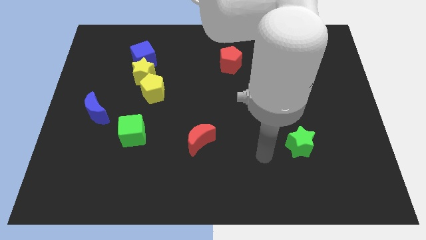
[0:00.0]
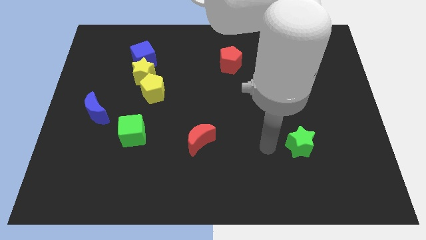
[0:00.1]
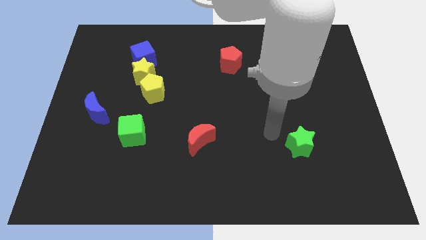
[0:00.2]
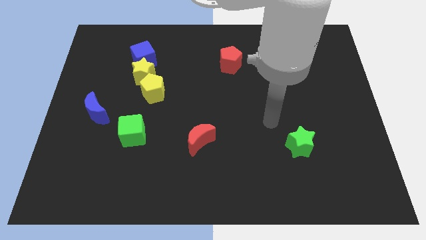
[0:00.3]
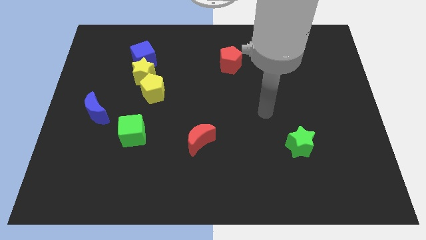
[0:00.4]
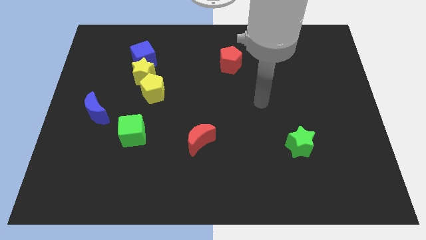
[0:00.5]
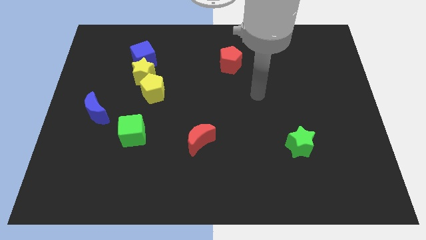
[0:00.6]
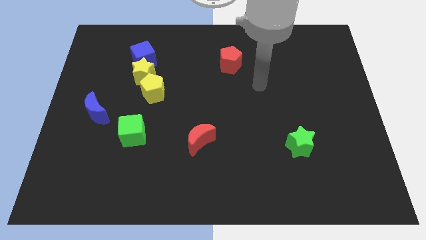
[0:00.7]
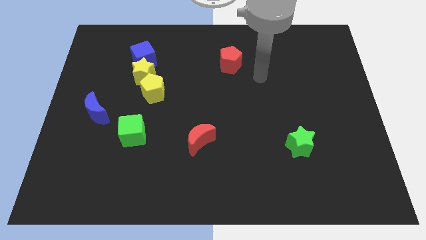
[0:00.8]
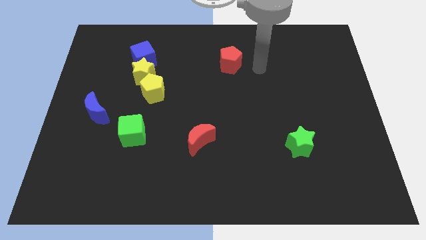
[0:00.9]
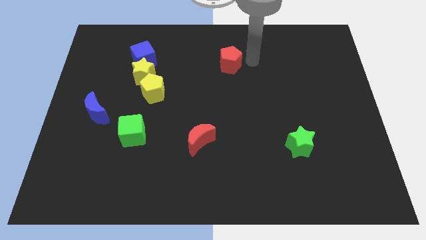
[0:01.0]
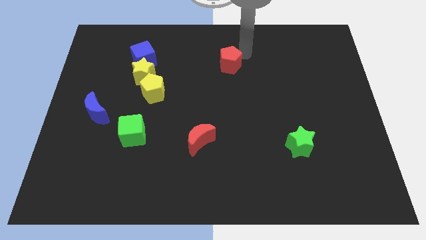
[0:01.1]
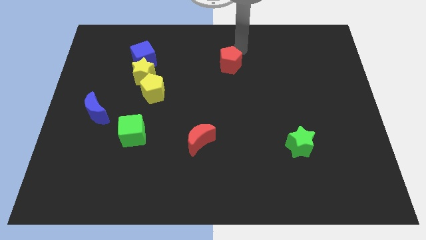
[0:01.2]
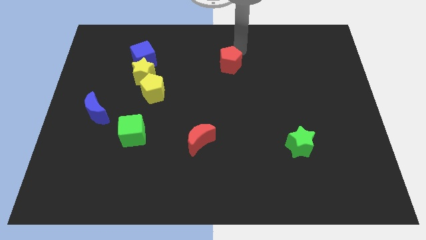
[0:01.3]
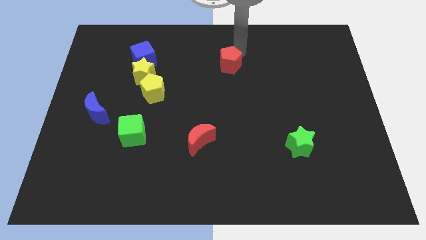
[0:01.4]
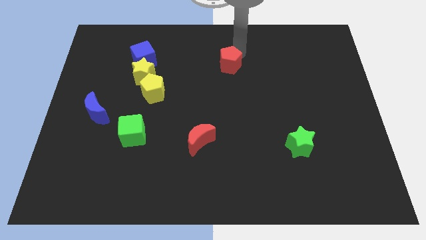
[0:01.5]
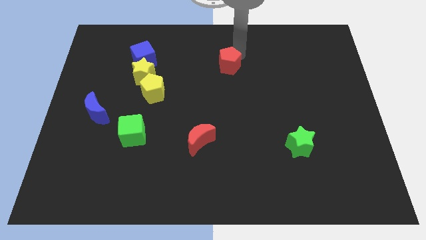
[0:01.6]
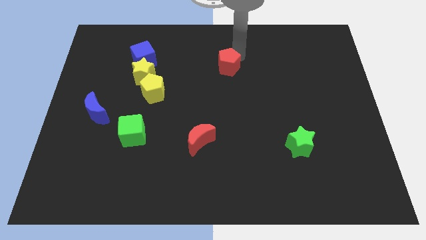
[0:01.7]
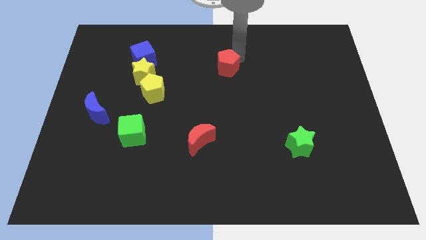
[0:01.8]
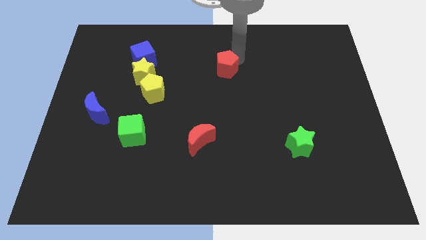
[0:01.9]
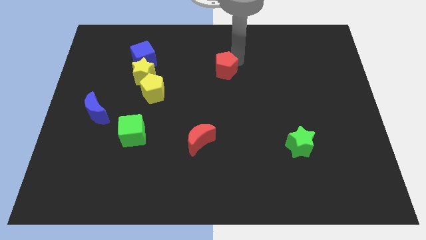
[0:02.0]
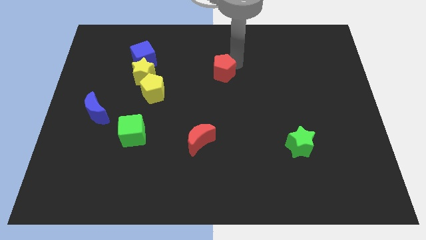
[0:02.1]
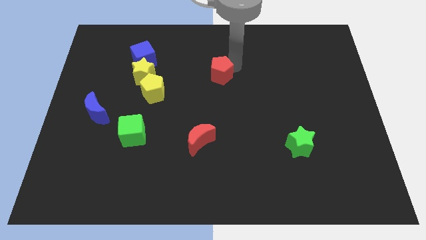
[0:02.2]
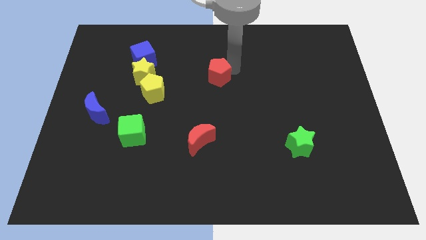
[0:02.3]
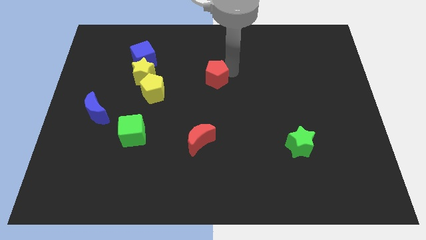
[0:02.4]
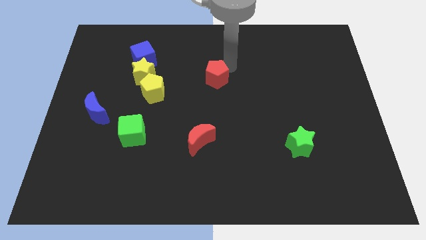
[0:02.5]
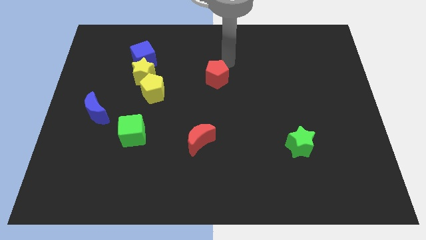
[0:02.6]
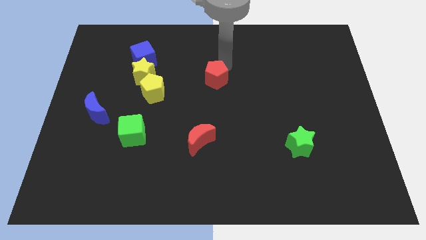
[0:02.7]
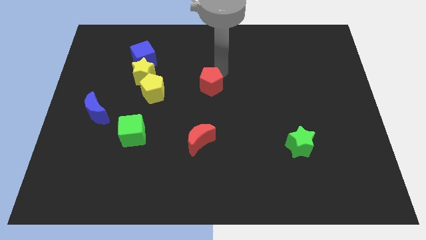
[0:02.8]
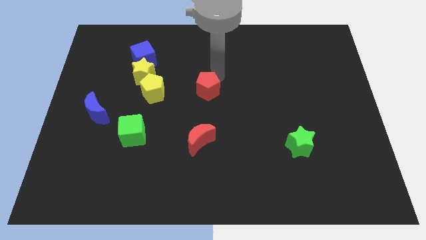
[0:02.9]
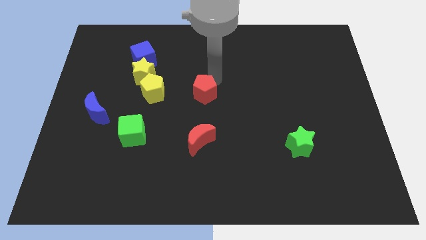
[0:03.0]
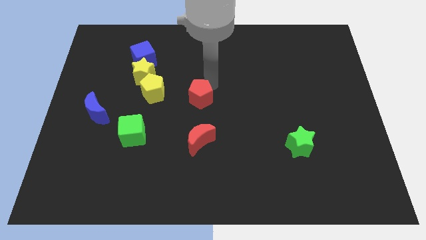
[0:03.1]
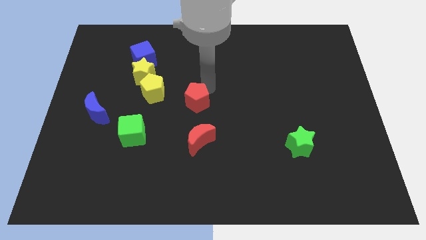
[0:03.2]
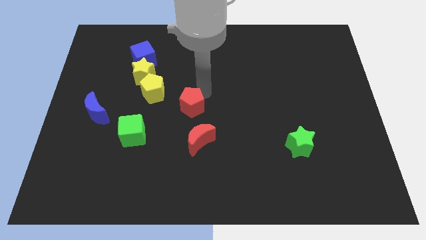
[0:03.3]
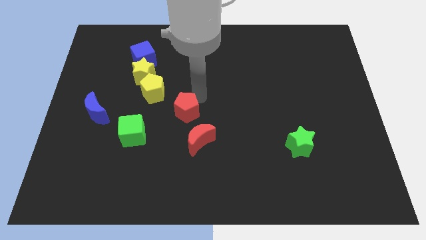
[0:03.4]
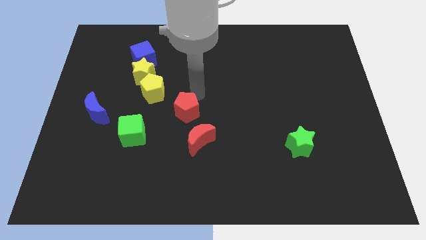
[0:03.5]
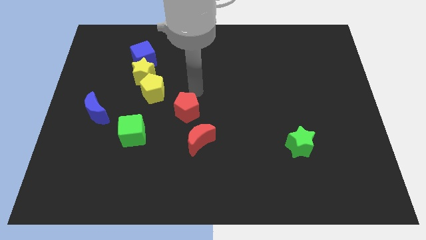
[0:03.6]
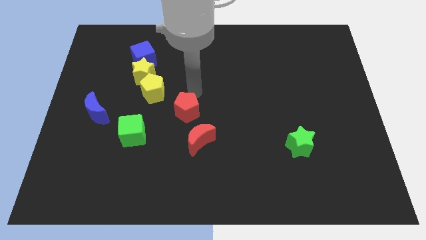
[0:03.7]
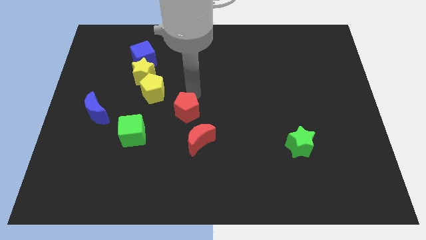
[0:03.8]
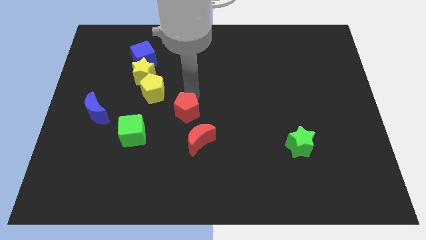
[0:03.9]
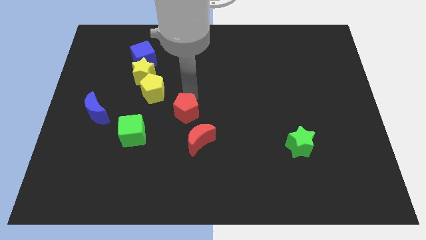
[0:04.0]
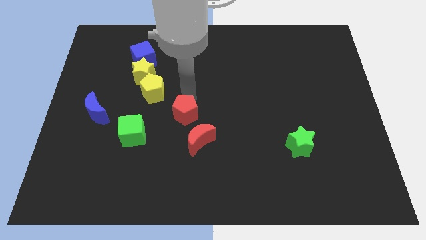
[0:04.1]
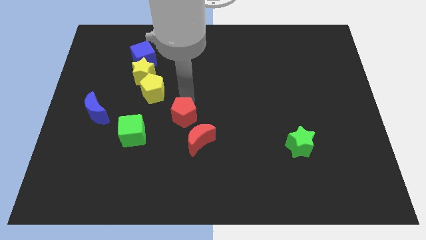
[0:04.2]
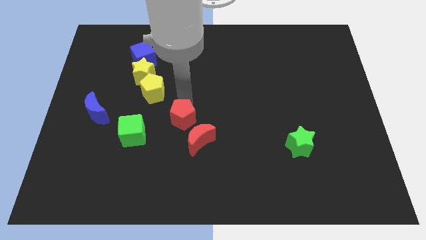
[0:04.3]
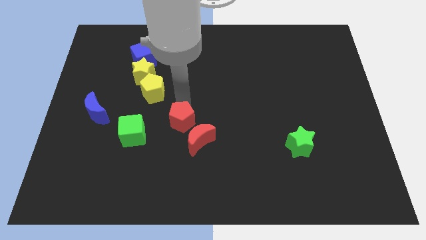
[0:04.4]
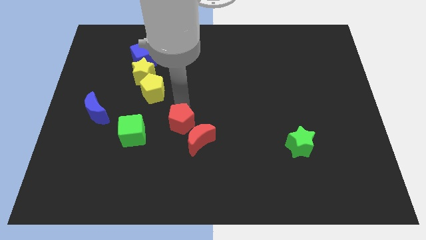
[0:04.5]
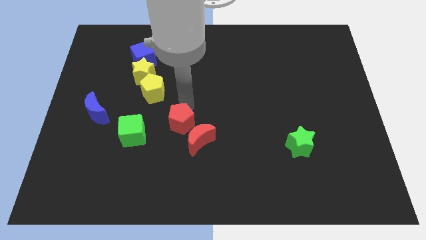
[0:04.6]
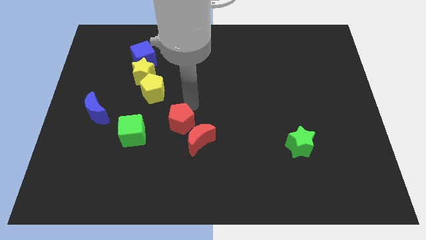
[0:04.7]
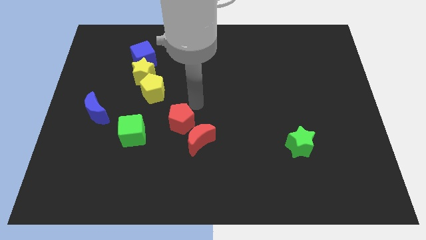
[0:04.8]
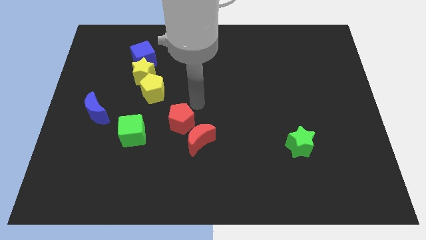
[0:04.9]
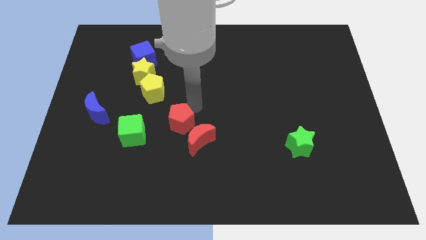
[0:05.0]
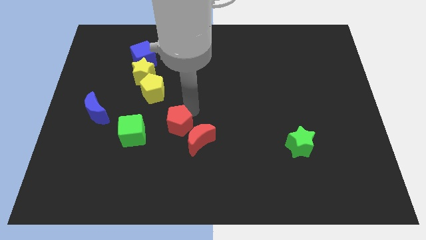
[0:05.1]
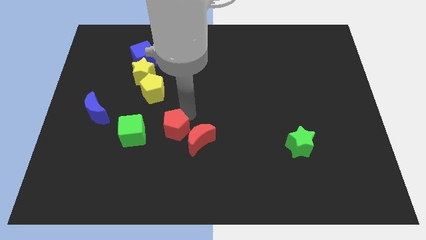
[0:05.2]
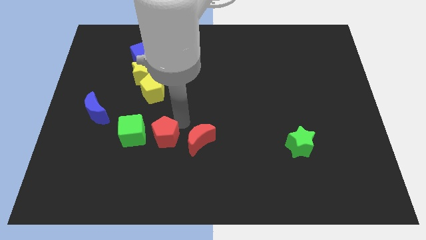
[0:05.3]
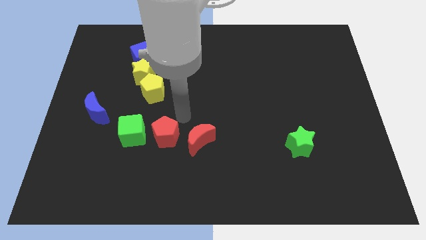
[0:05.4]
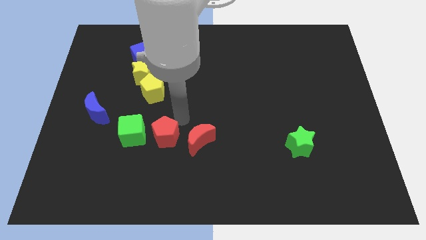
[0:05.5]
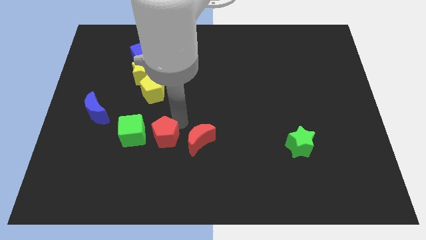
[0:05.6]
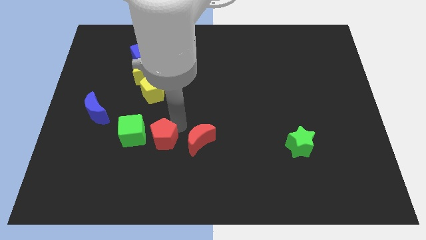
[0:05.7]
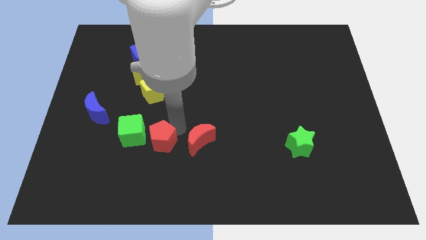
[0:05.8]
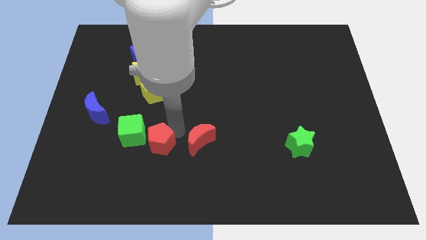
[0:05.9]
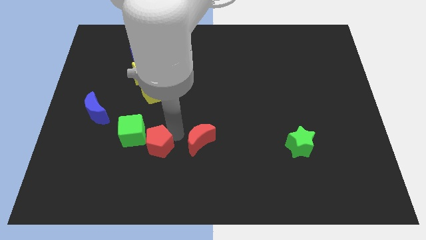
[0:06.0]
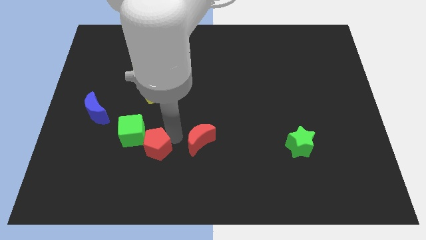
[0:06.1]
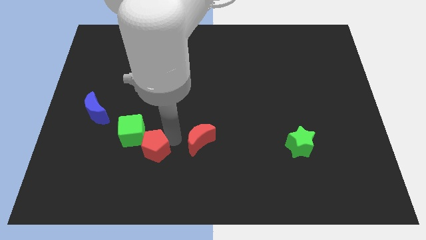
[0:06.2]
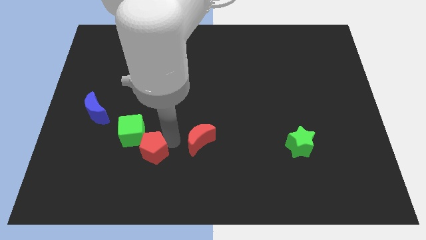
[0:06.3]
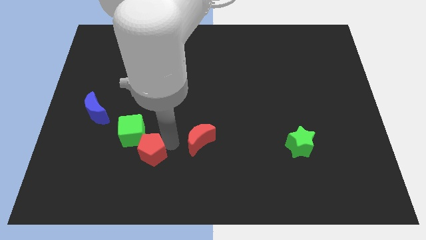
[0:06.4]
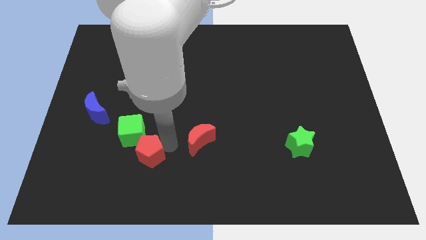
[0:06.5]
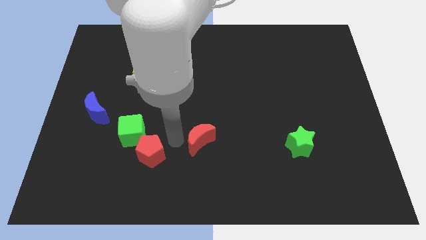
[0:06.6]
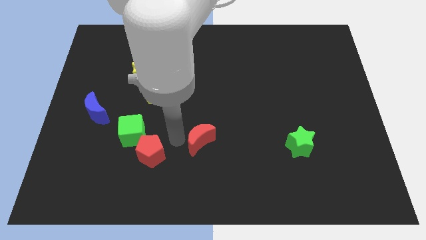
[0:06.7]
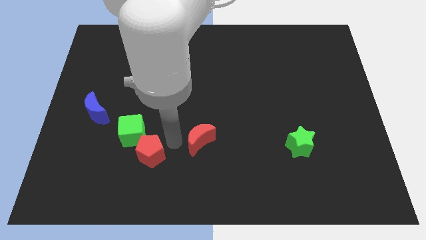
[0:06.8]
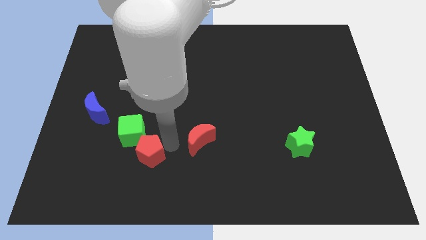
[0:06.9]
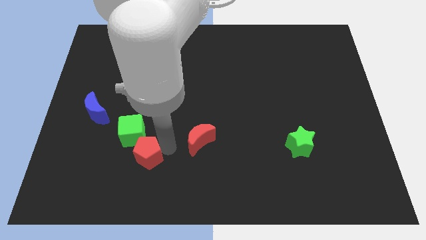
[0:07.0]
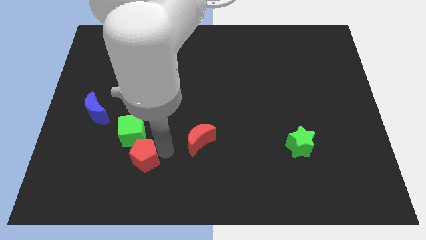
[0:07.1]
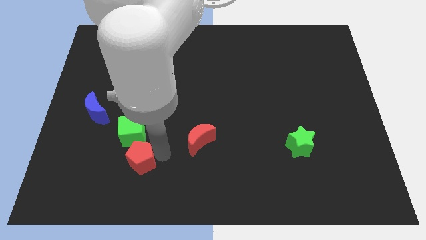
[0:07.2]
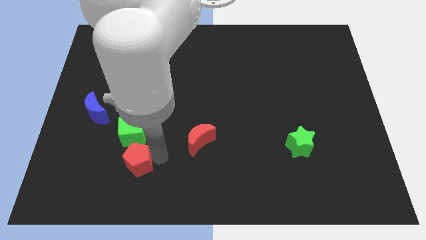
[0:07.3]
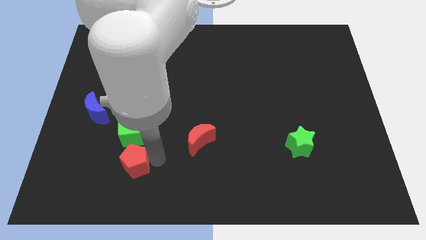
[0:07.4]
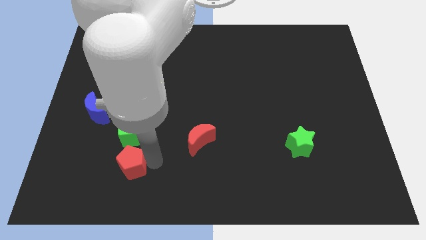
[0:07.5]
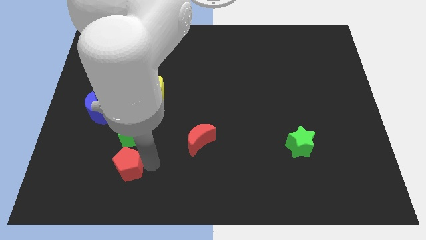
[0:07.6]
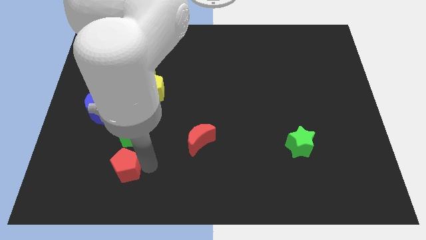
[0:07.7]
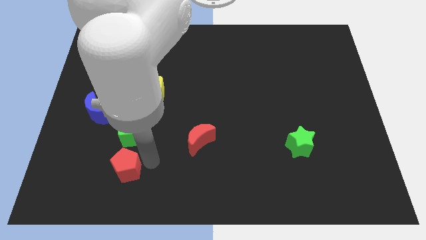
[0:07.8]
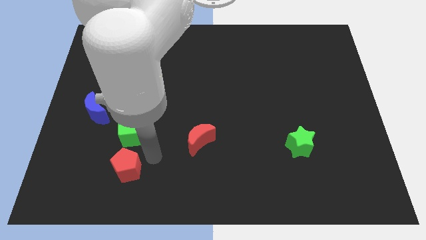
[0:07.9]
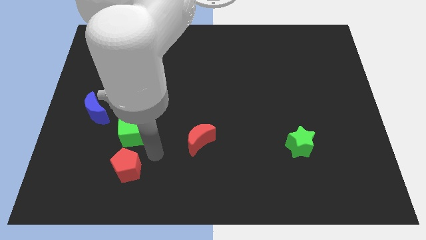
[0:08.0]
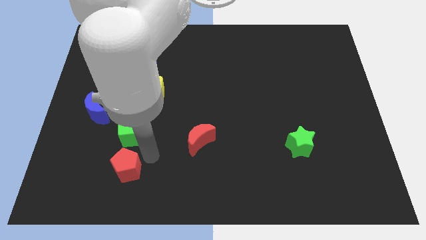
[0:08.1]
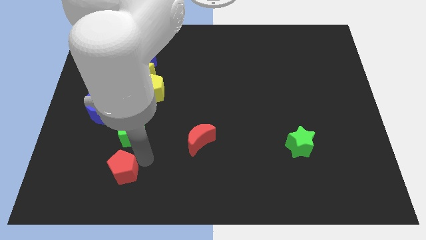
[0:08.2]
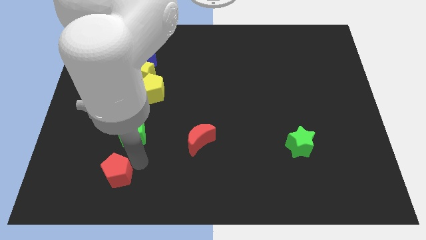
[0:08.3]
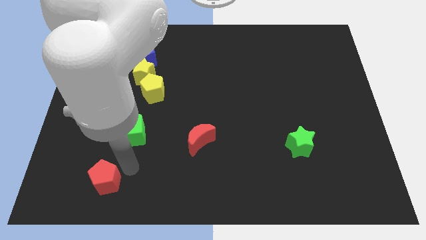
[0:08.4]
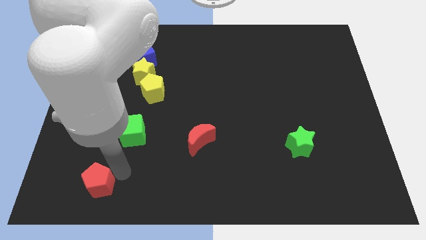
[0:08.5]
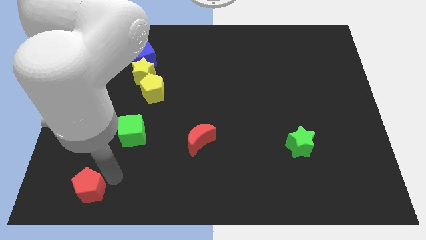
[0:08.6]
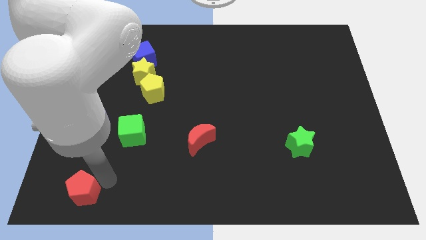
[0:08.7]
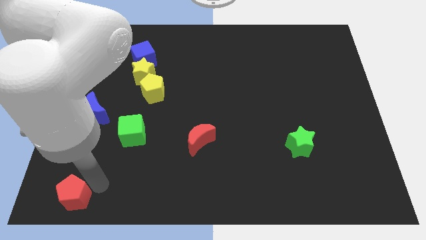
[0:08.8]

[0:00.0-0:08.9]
slide the red pentagon to the bottom left corner
